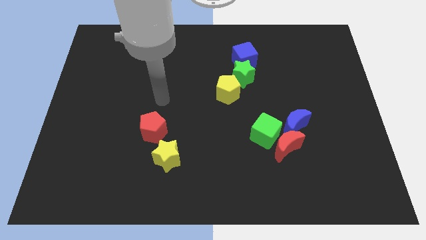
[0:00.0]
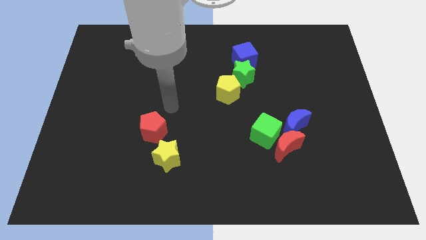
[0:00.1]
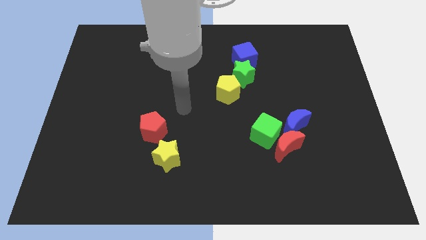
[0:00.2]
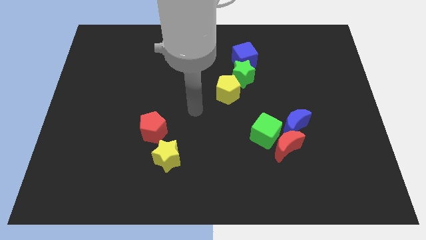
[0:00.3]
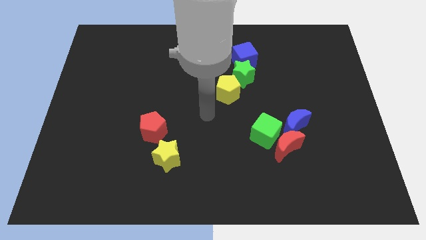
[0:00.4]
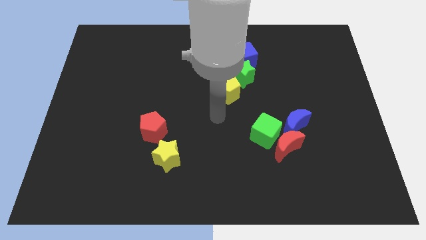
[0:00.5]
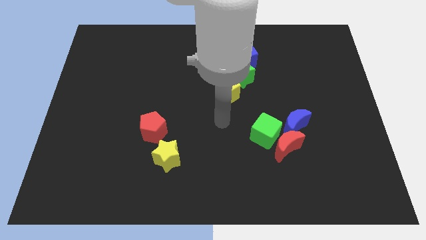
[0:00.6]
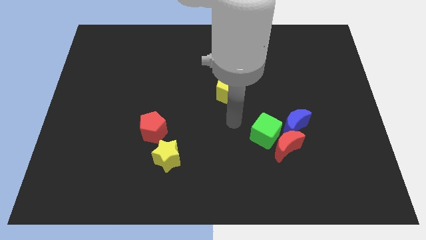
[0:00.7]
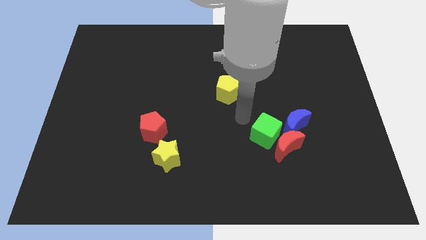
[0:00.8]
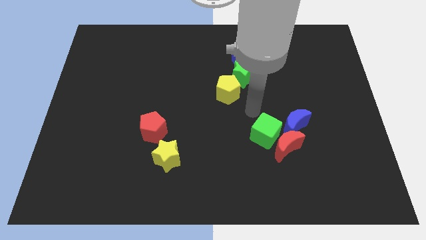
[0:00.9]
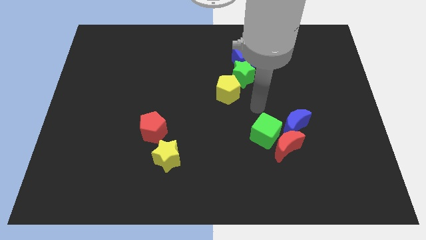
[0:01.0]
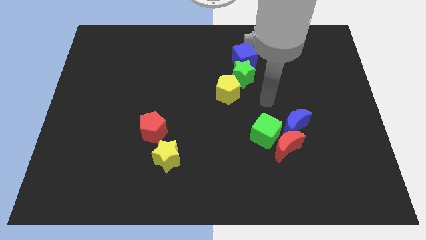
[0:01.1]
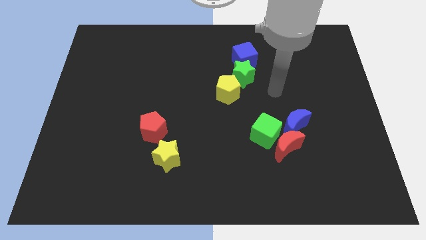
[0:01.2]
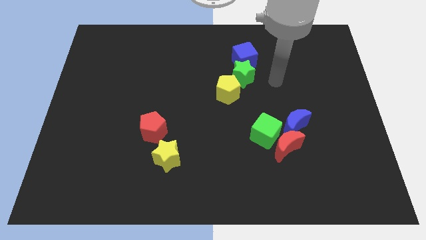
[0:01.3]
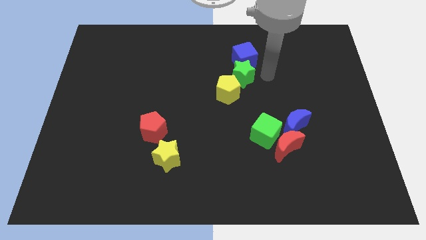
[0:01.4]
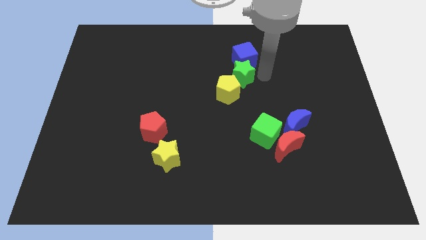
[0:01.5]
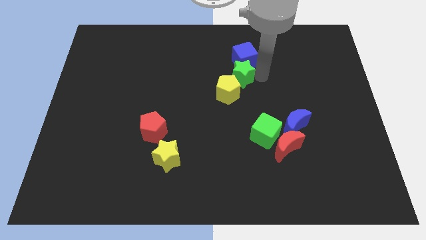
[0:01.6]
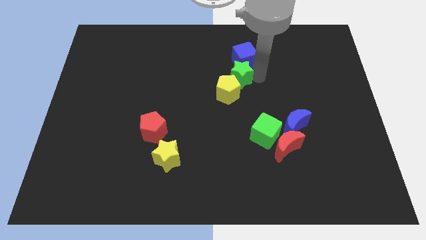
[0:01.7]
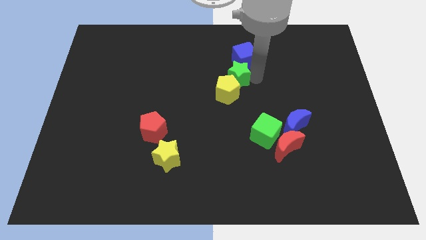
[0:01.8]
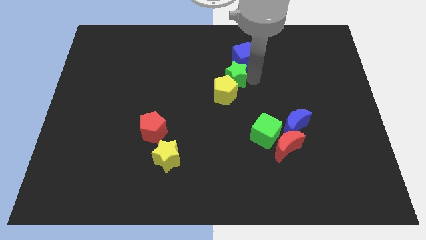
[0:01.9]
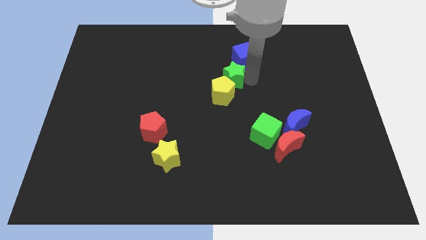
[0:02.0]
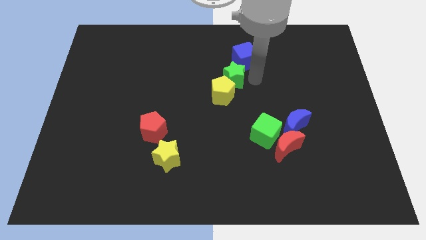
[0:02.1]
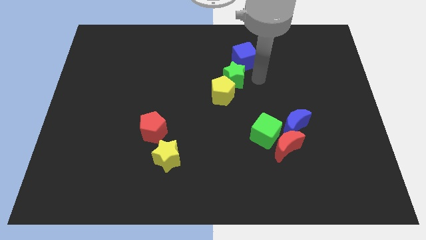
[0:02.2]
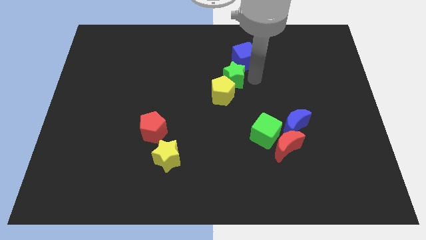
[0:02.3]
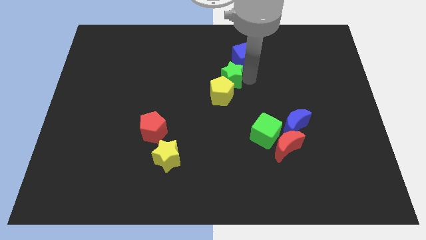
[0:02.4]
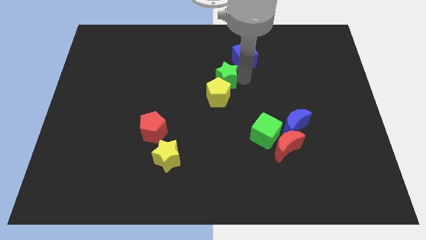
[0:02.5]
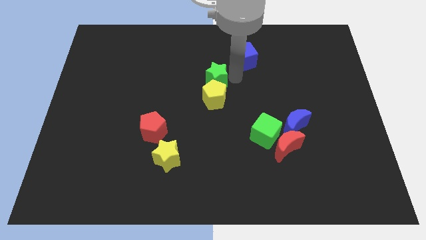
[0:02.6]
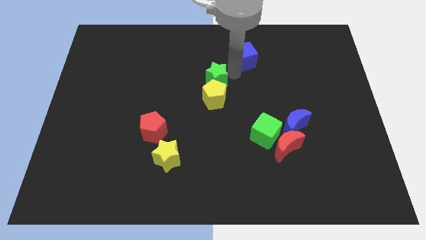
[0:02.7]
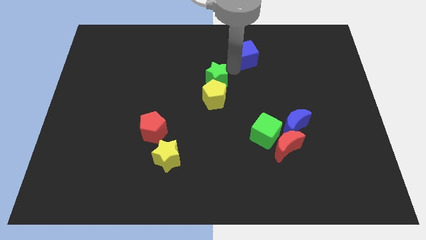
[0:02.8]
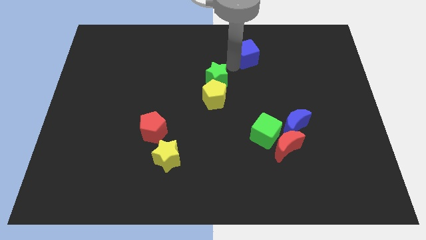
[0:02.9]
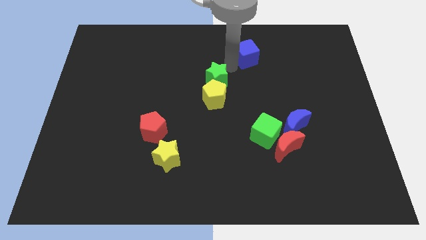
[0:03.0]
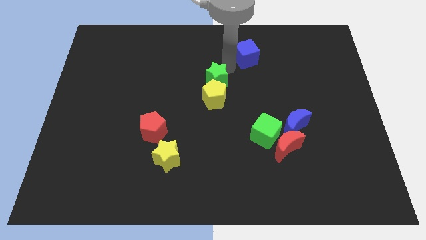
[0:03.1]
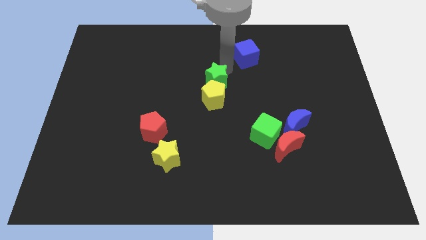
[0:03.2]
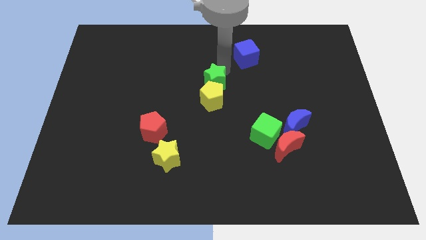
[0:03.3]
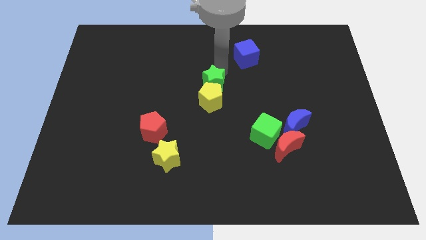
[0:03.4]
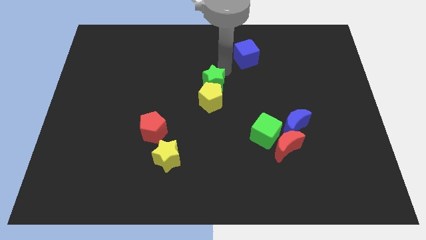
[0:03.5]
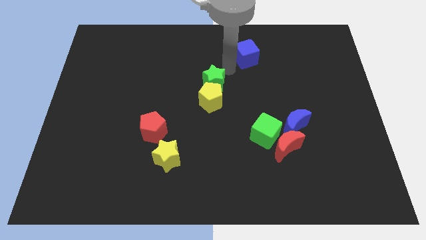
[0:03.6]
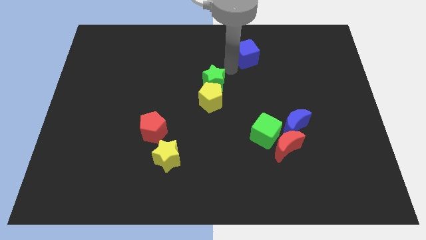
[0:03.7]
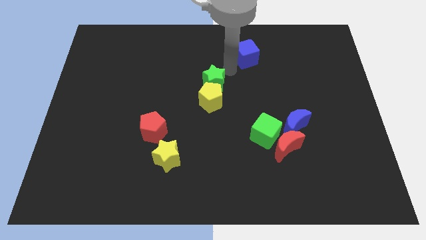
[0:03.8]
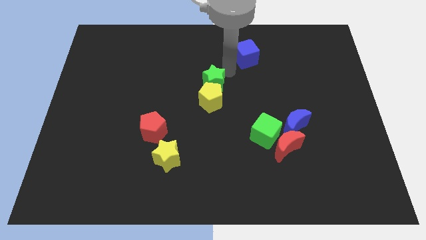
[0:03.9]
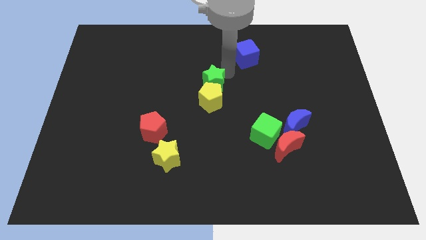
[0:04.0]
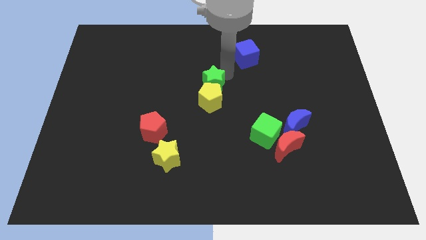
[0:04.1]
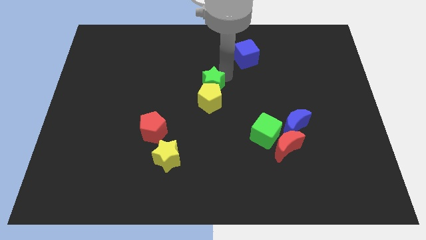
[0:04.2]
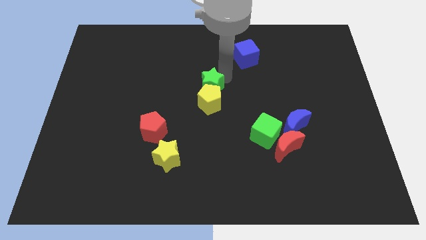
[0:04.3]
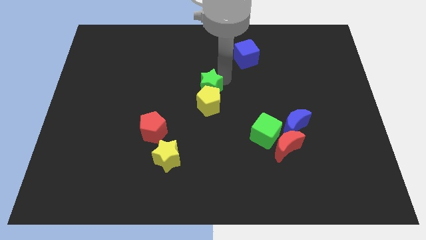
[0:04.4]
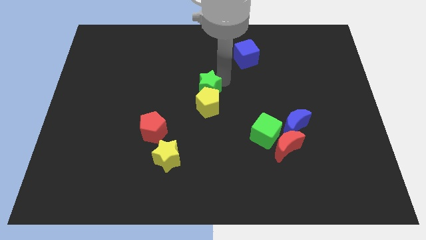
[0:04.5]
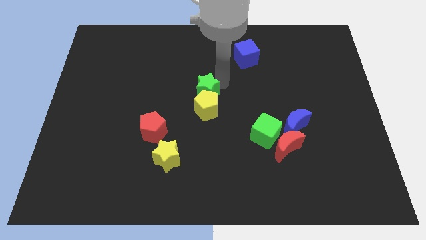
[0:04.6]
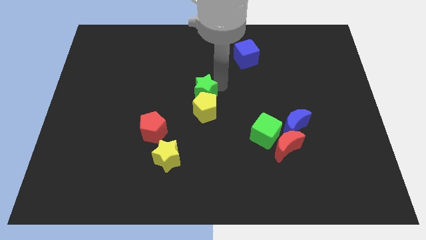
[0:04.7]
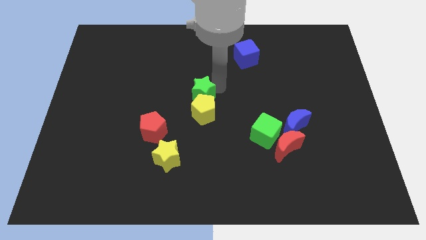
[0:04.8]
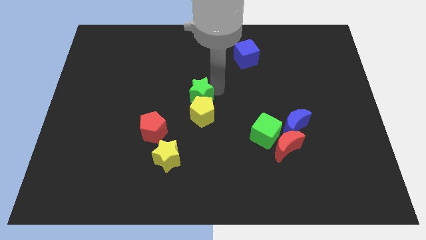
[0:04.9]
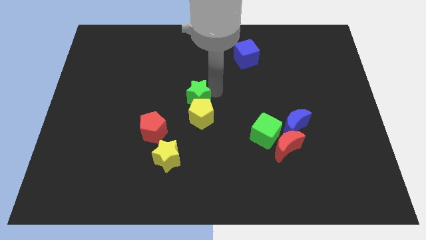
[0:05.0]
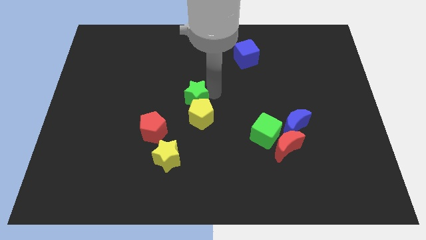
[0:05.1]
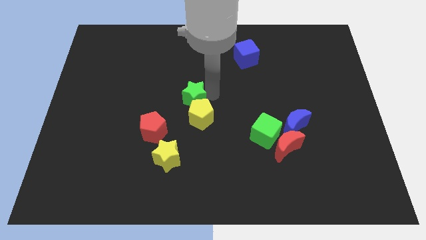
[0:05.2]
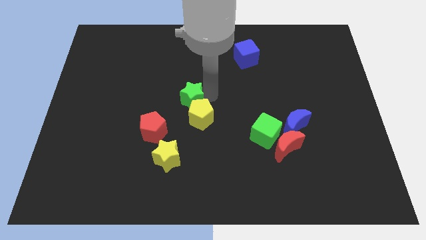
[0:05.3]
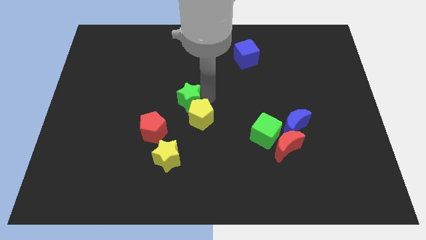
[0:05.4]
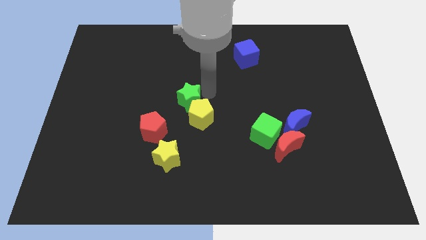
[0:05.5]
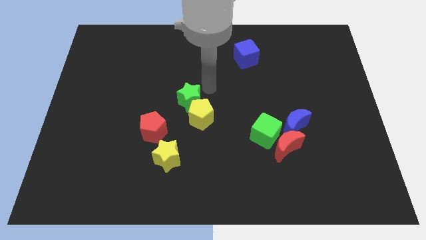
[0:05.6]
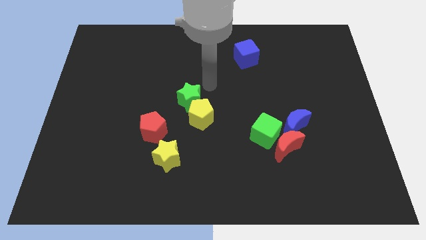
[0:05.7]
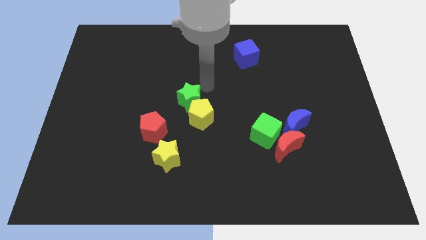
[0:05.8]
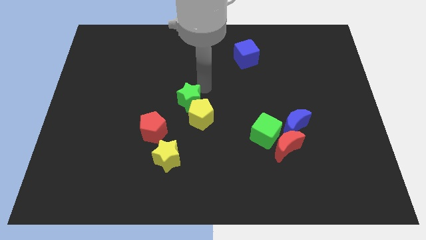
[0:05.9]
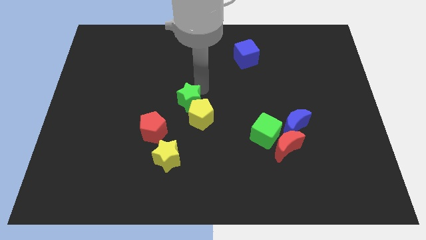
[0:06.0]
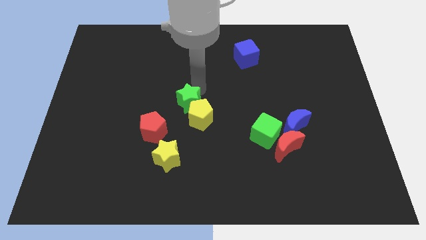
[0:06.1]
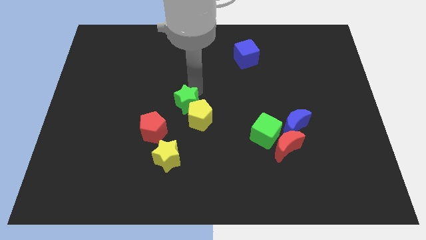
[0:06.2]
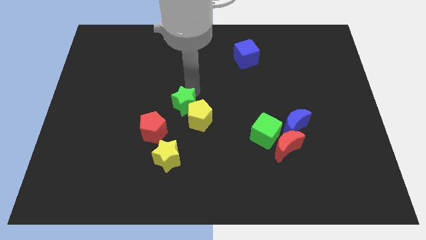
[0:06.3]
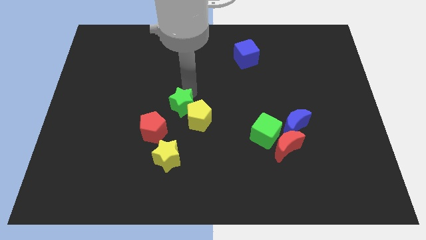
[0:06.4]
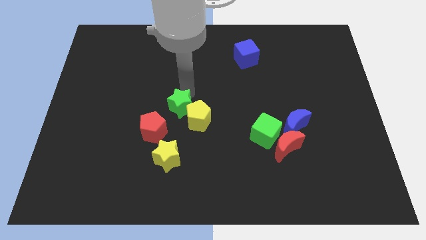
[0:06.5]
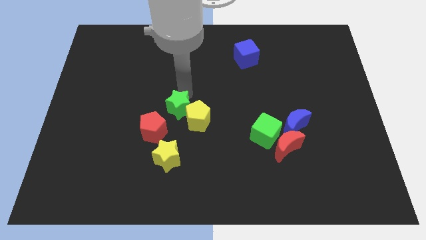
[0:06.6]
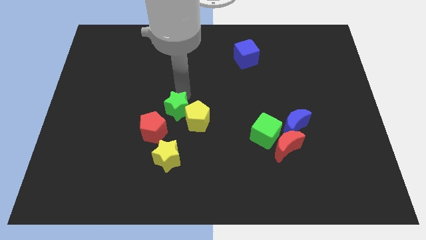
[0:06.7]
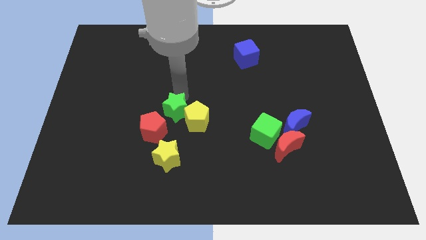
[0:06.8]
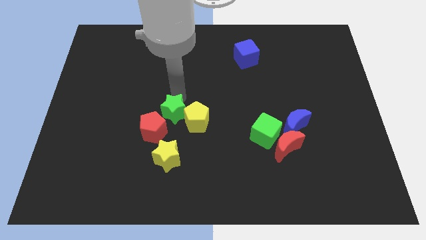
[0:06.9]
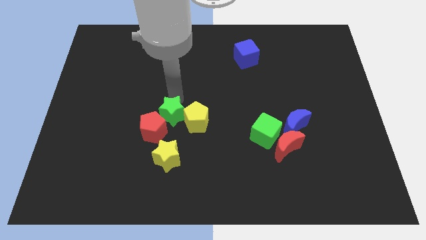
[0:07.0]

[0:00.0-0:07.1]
push the green star towards the red pentagon
